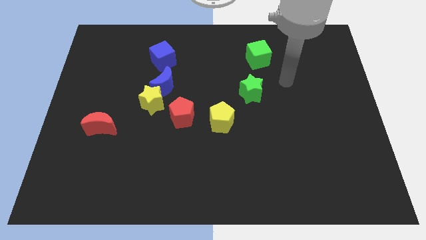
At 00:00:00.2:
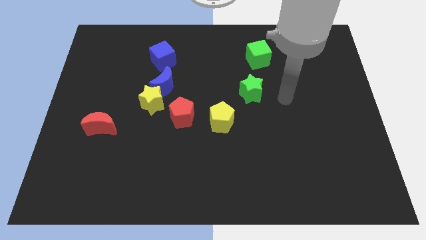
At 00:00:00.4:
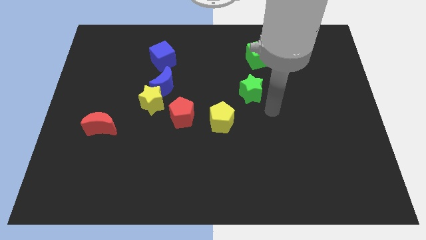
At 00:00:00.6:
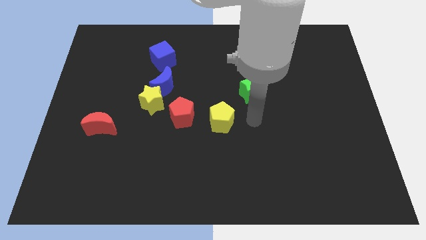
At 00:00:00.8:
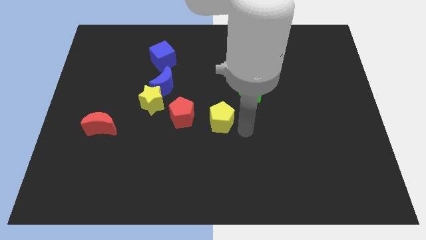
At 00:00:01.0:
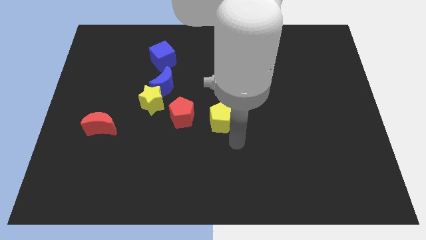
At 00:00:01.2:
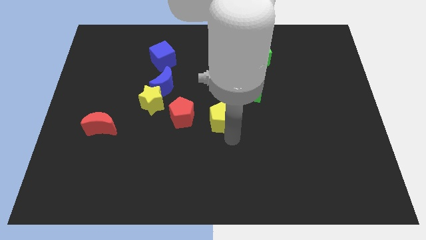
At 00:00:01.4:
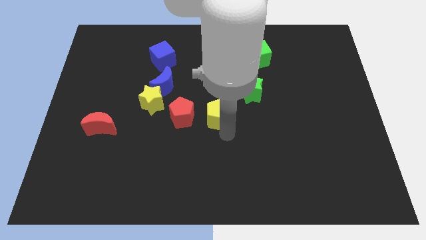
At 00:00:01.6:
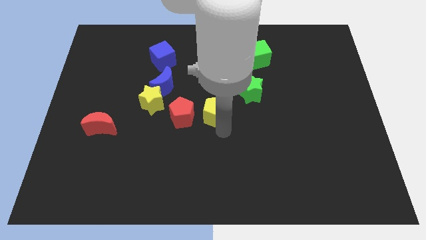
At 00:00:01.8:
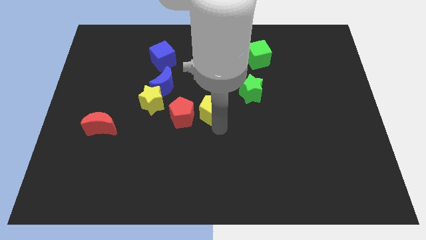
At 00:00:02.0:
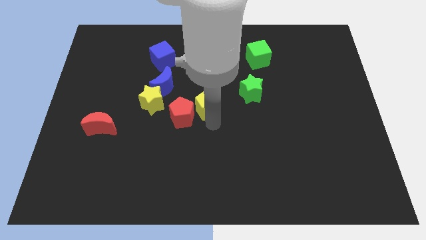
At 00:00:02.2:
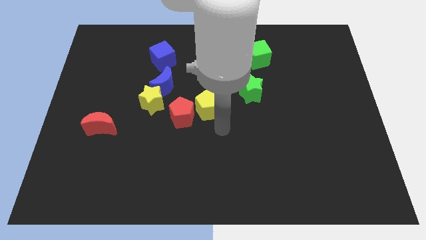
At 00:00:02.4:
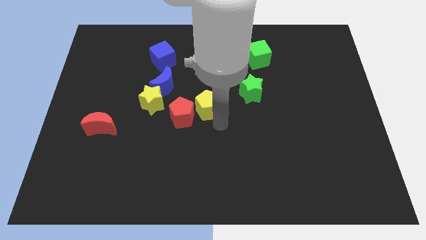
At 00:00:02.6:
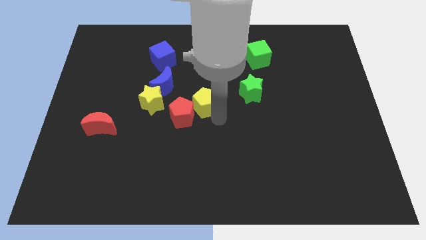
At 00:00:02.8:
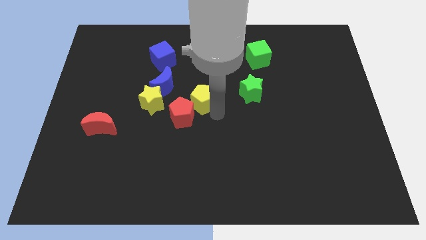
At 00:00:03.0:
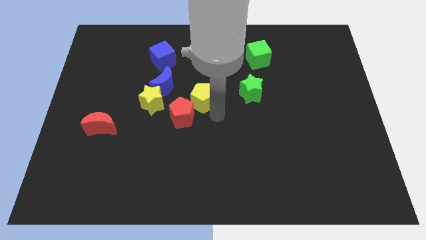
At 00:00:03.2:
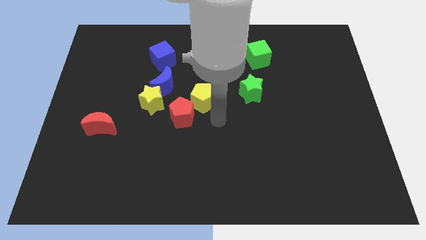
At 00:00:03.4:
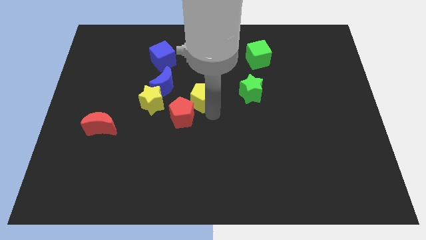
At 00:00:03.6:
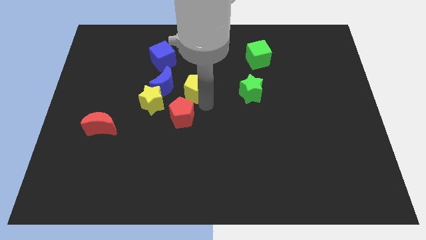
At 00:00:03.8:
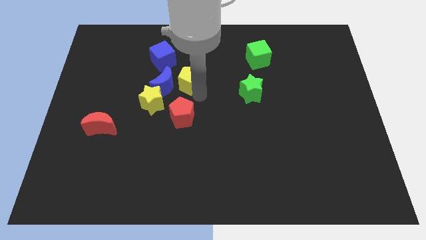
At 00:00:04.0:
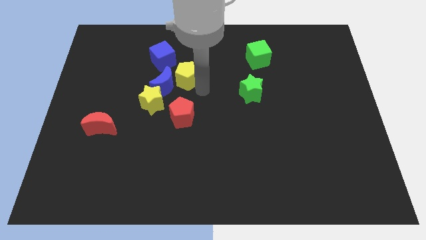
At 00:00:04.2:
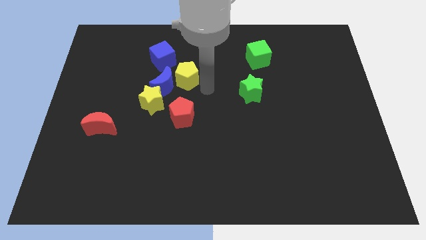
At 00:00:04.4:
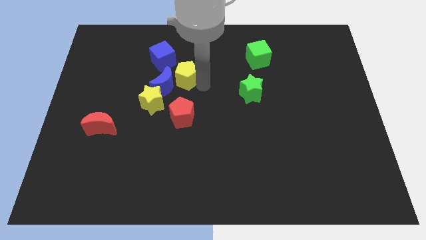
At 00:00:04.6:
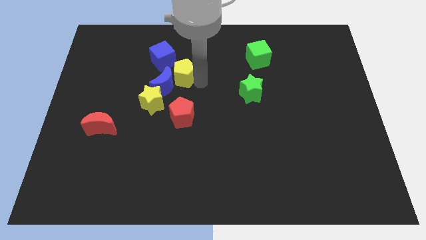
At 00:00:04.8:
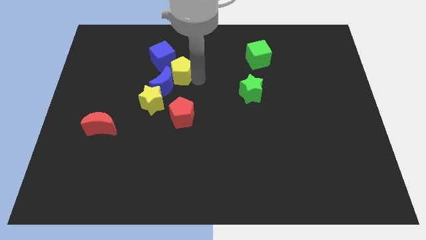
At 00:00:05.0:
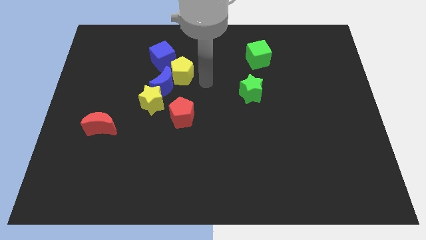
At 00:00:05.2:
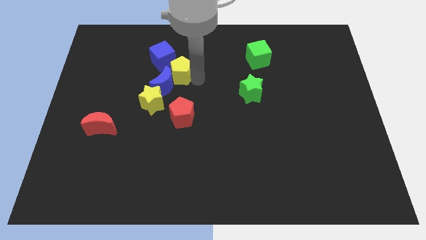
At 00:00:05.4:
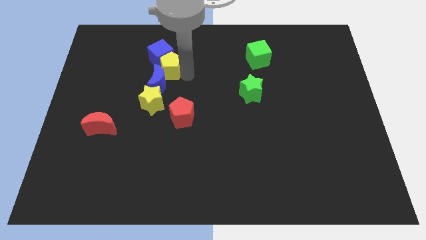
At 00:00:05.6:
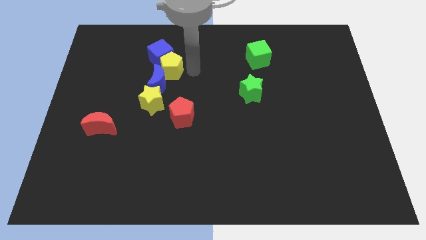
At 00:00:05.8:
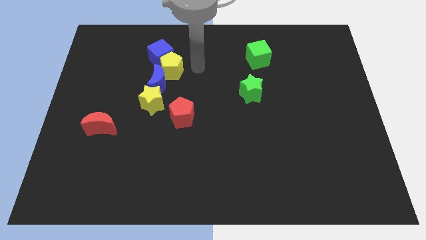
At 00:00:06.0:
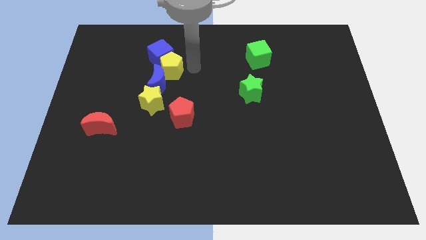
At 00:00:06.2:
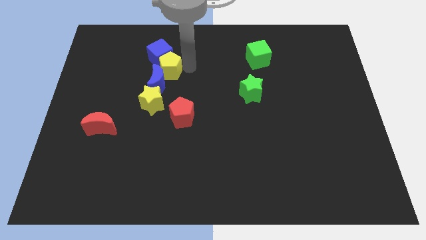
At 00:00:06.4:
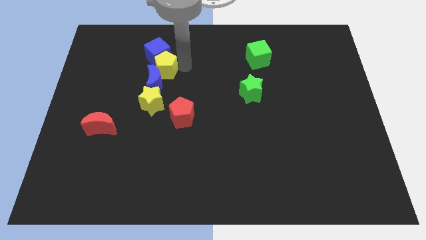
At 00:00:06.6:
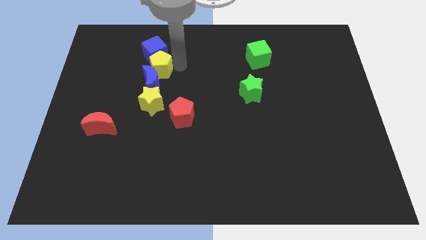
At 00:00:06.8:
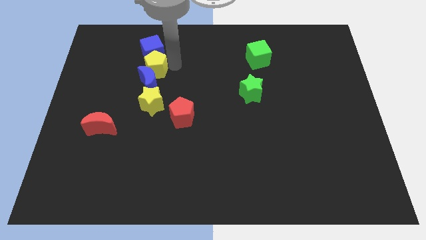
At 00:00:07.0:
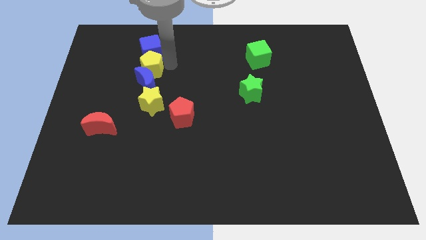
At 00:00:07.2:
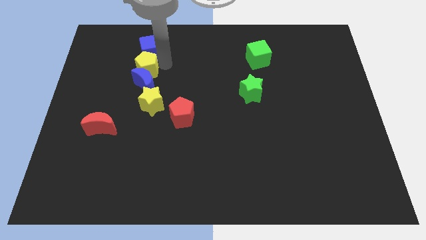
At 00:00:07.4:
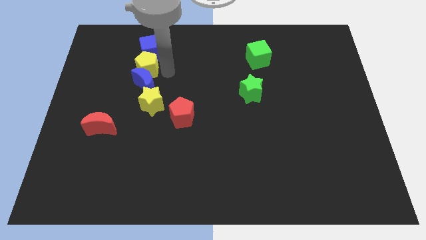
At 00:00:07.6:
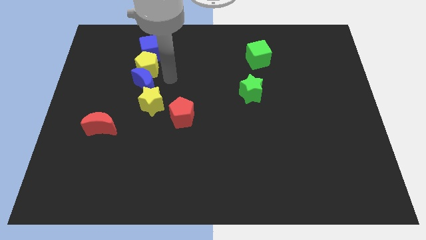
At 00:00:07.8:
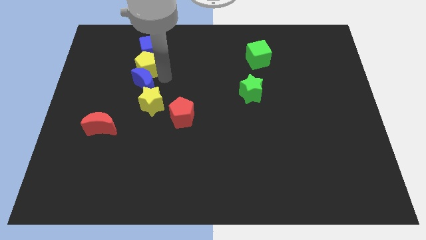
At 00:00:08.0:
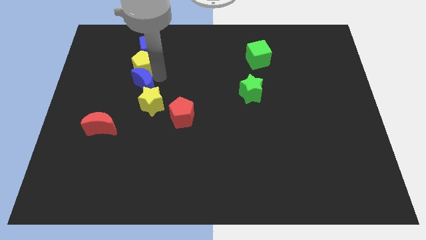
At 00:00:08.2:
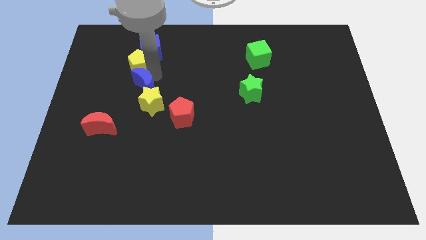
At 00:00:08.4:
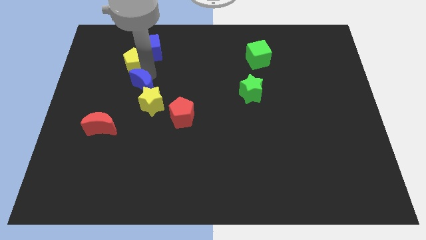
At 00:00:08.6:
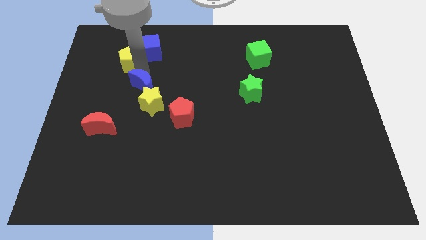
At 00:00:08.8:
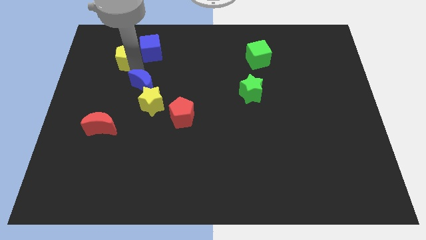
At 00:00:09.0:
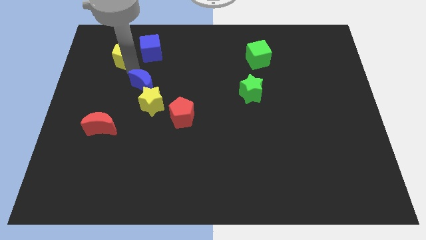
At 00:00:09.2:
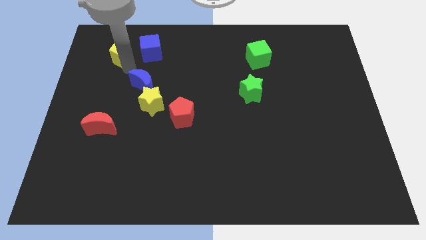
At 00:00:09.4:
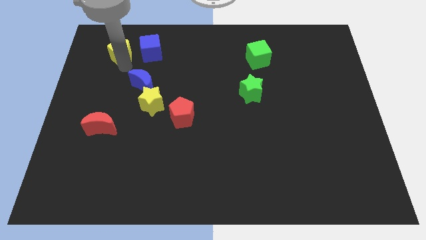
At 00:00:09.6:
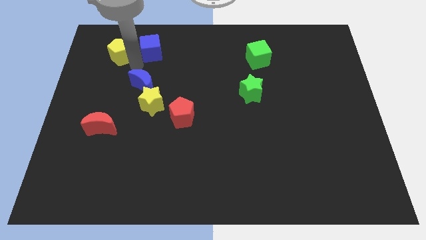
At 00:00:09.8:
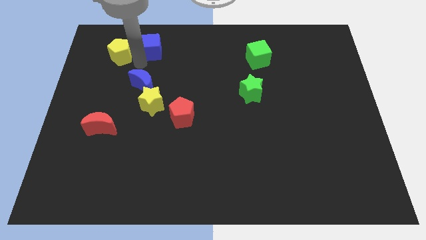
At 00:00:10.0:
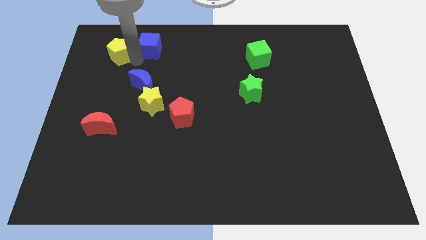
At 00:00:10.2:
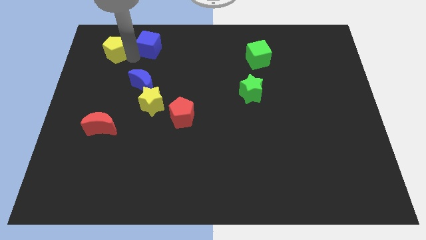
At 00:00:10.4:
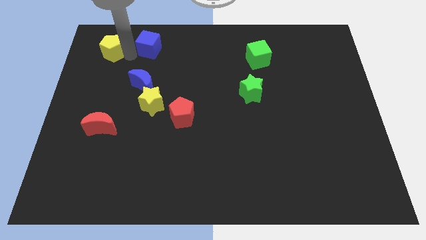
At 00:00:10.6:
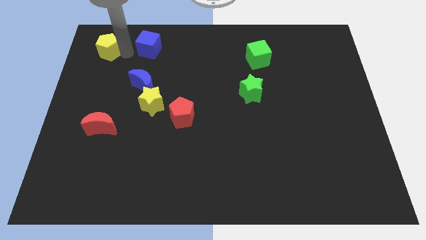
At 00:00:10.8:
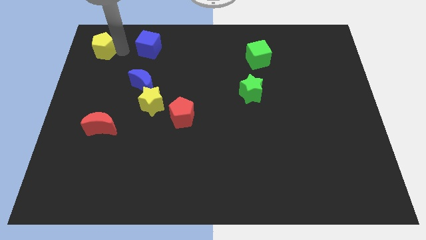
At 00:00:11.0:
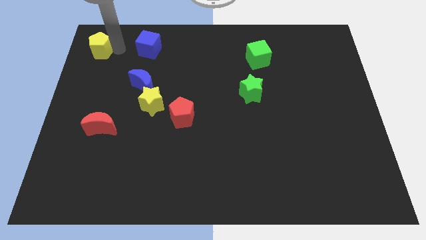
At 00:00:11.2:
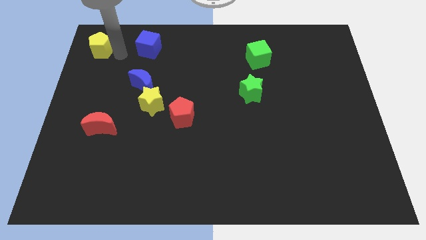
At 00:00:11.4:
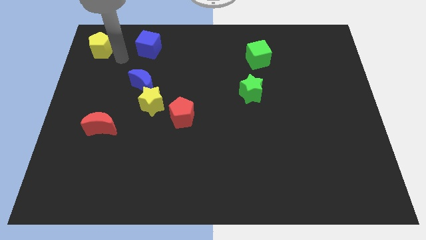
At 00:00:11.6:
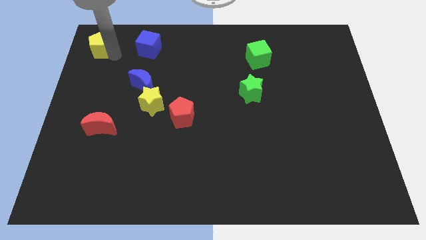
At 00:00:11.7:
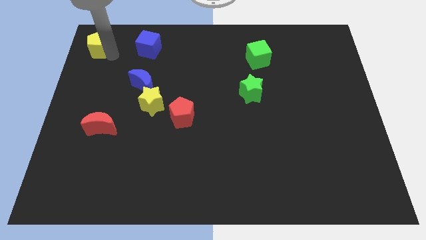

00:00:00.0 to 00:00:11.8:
put the yellow pentagon to the top left corner

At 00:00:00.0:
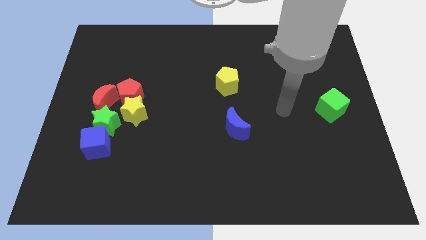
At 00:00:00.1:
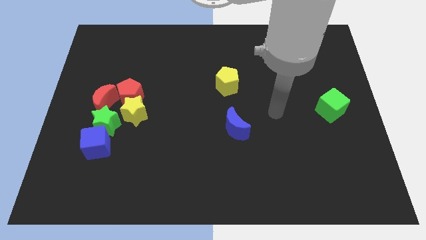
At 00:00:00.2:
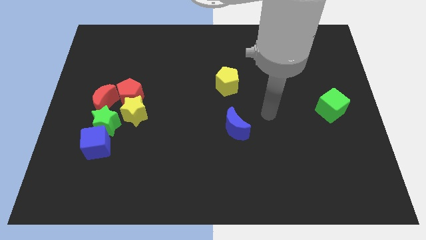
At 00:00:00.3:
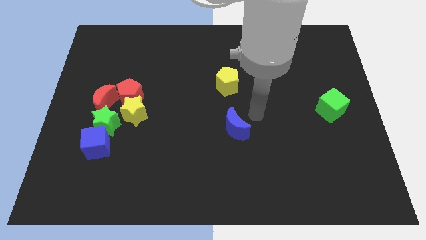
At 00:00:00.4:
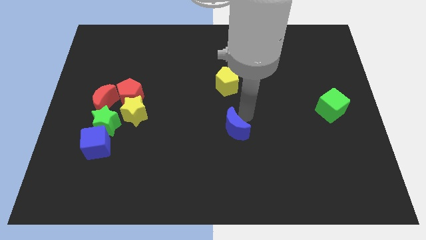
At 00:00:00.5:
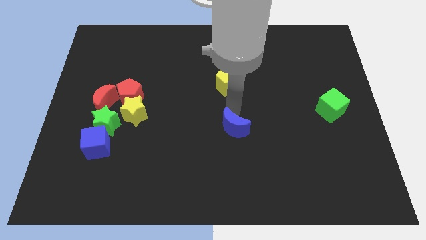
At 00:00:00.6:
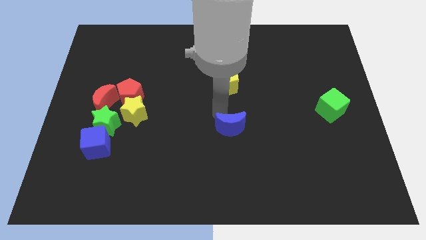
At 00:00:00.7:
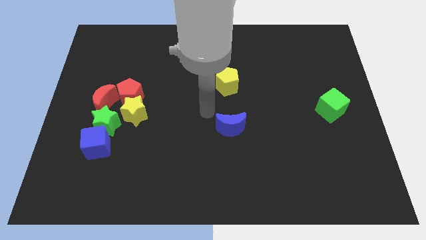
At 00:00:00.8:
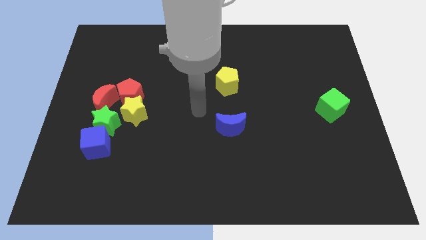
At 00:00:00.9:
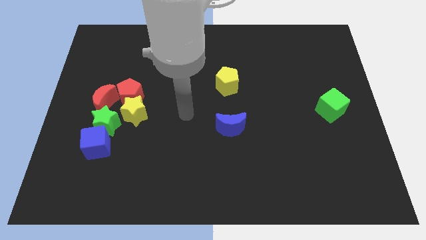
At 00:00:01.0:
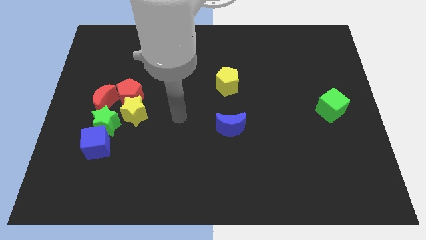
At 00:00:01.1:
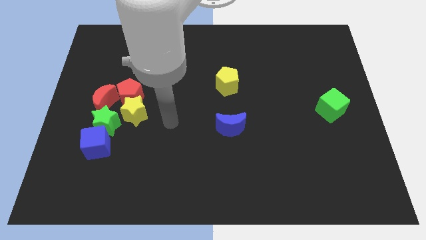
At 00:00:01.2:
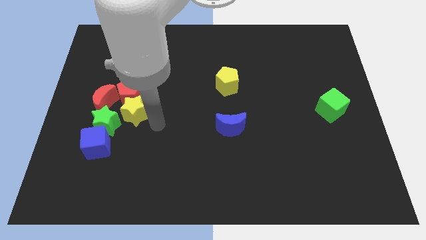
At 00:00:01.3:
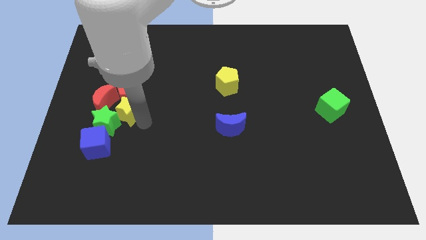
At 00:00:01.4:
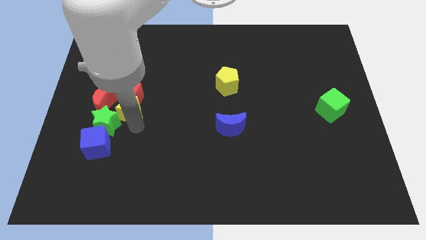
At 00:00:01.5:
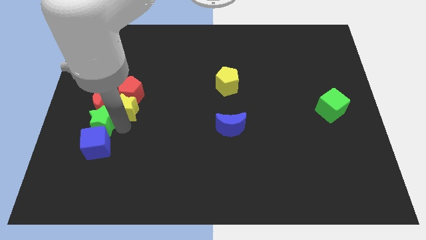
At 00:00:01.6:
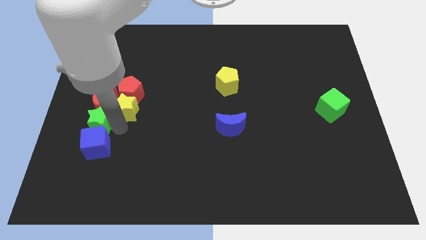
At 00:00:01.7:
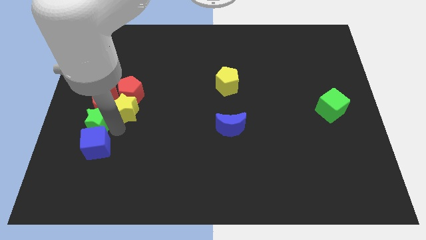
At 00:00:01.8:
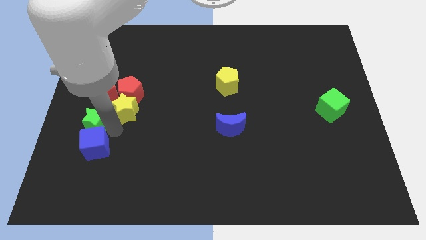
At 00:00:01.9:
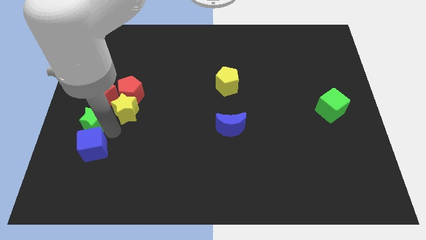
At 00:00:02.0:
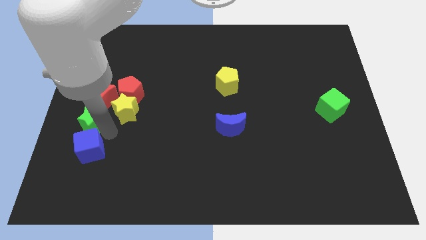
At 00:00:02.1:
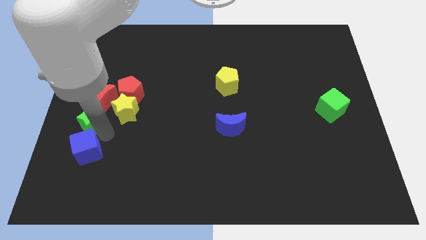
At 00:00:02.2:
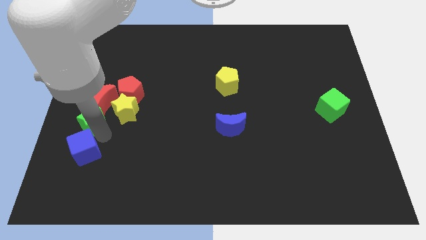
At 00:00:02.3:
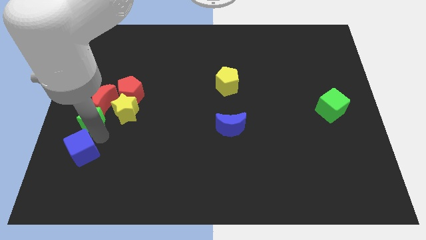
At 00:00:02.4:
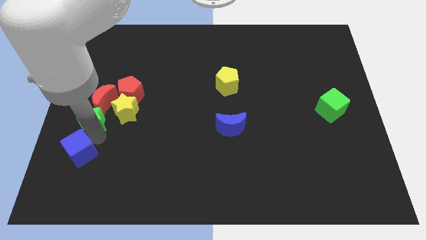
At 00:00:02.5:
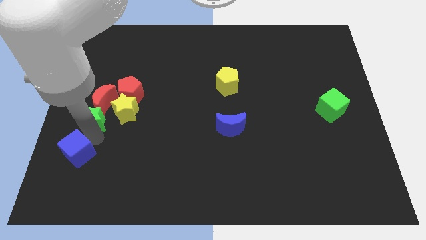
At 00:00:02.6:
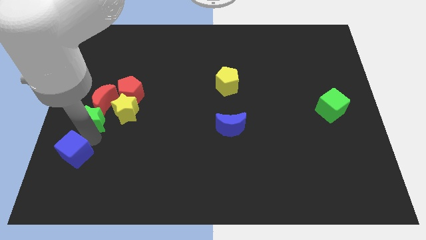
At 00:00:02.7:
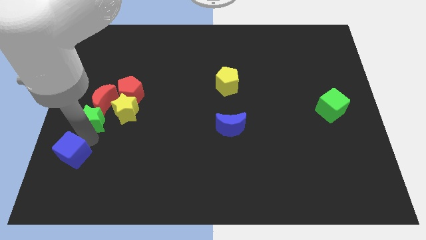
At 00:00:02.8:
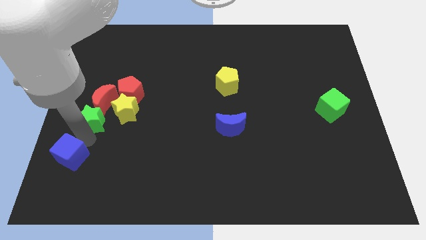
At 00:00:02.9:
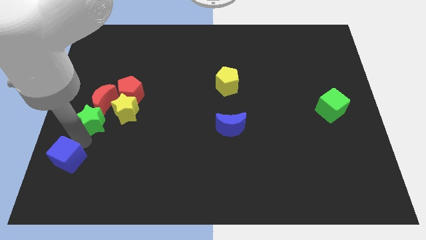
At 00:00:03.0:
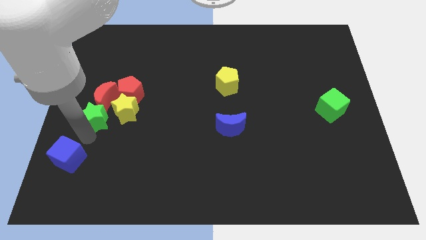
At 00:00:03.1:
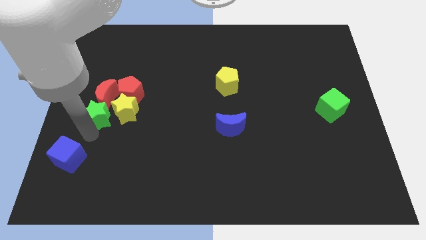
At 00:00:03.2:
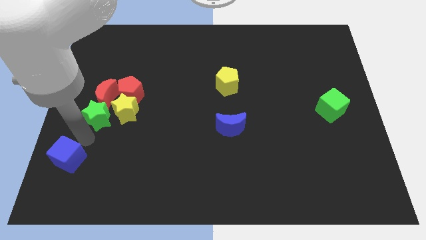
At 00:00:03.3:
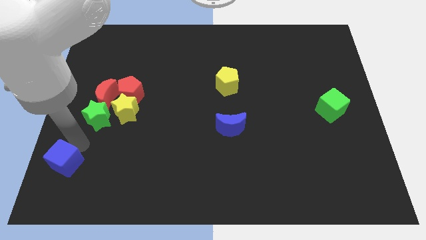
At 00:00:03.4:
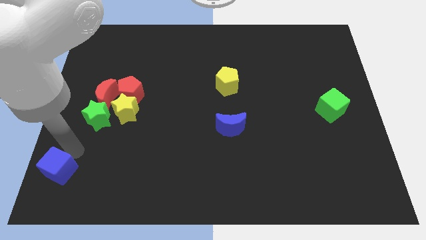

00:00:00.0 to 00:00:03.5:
move the blue cube to the lower left corner
